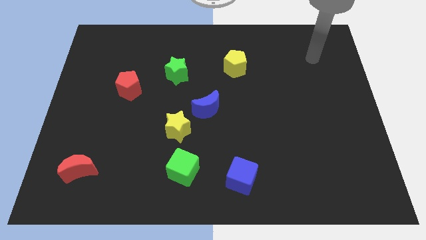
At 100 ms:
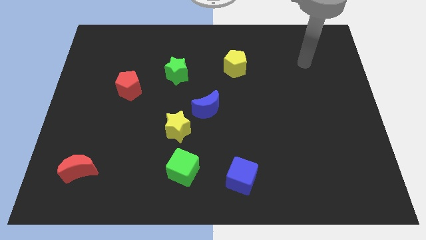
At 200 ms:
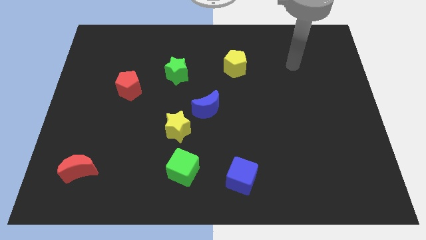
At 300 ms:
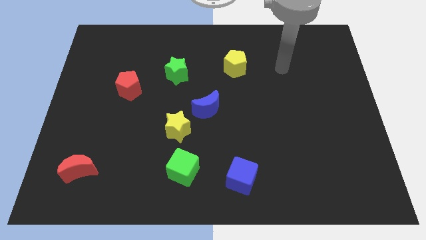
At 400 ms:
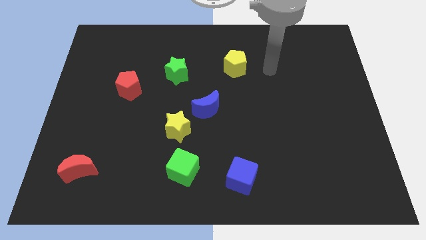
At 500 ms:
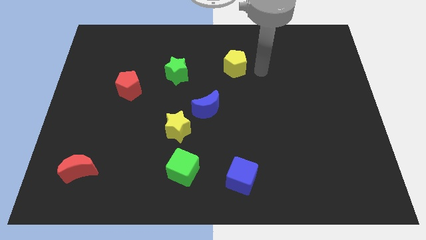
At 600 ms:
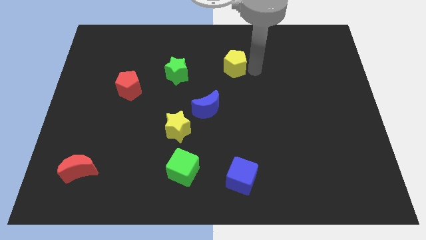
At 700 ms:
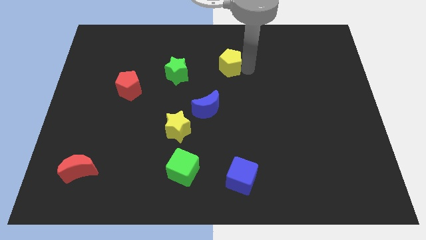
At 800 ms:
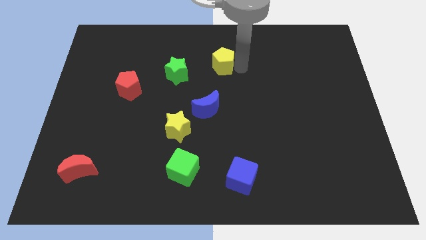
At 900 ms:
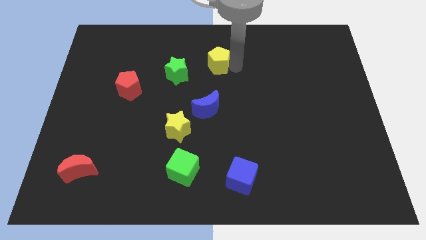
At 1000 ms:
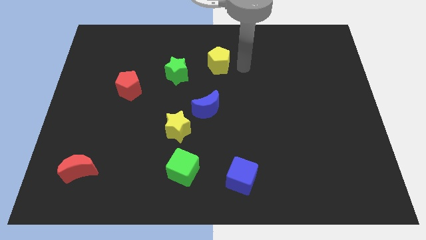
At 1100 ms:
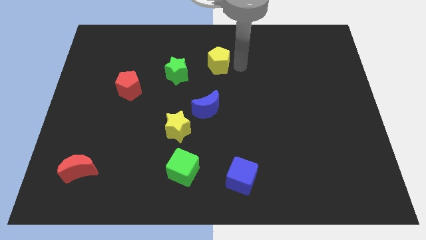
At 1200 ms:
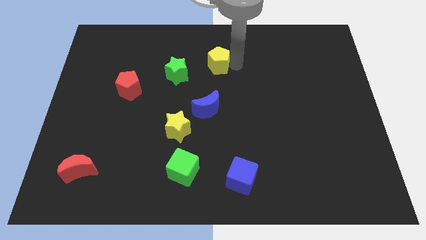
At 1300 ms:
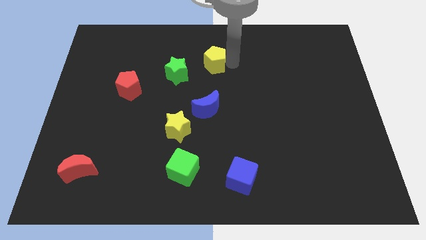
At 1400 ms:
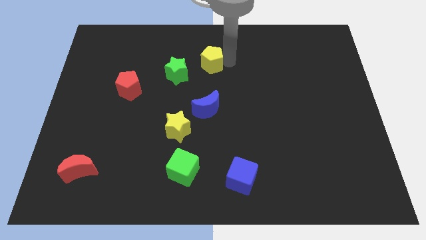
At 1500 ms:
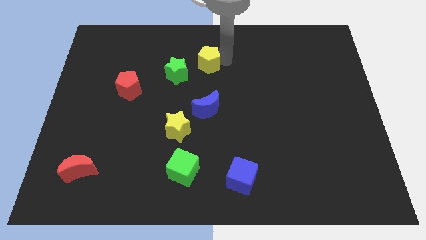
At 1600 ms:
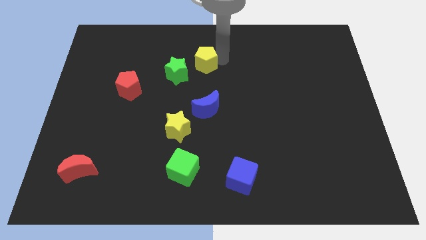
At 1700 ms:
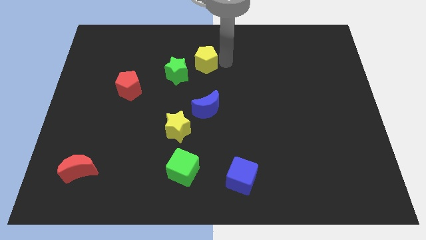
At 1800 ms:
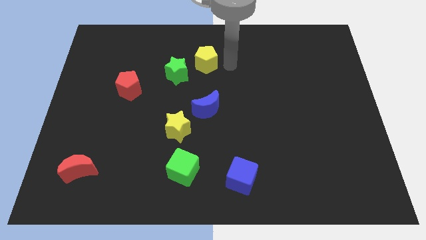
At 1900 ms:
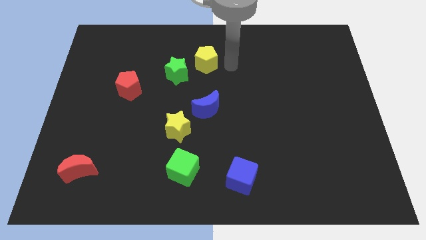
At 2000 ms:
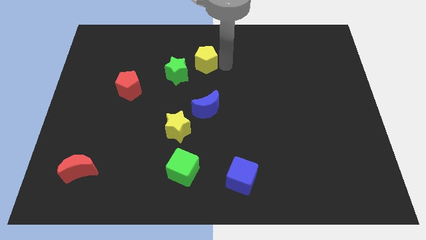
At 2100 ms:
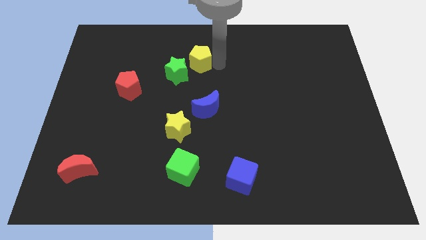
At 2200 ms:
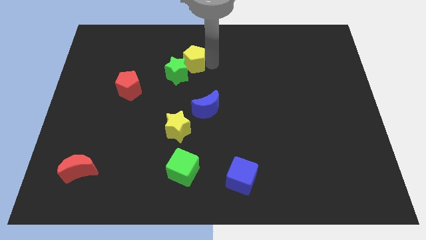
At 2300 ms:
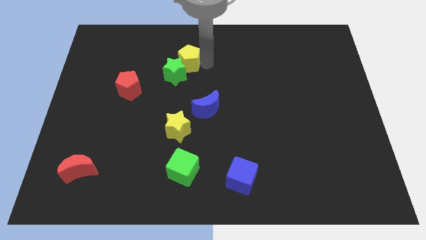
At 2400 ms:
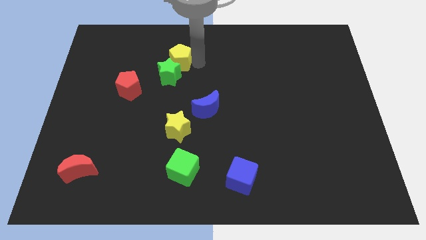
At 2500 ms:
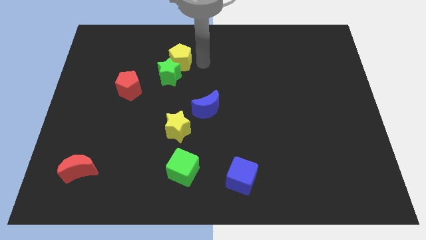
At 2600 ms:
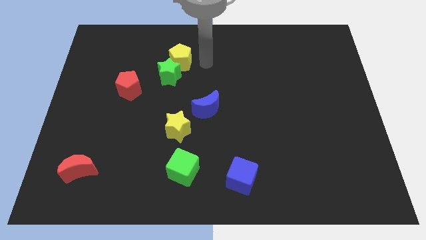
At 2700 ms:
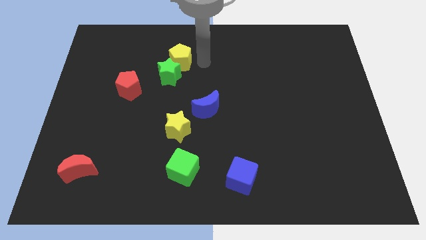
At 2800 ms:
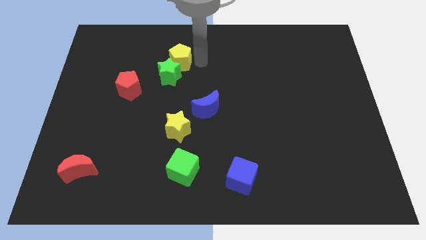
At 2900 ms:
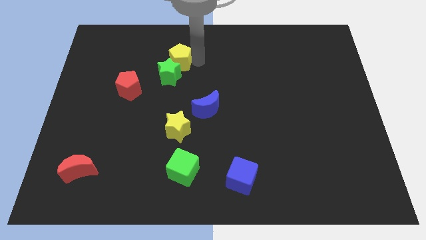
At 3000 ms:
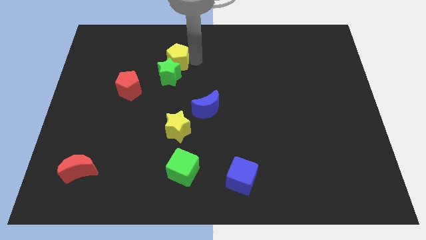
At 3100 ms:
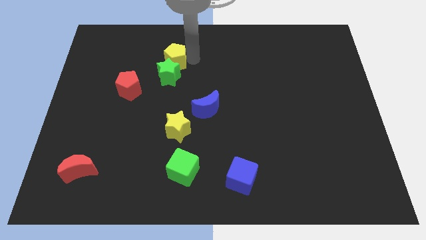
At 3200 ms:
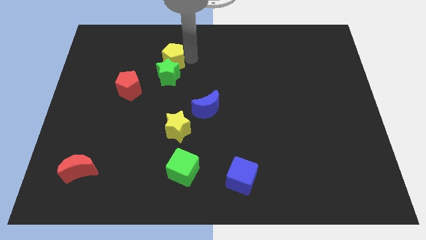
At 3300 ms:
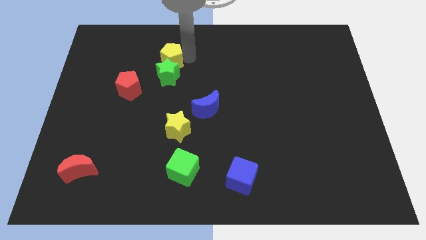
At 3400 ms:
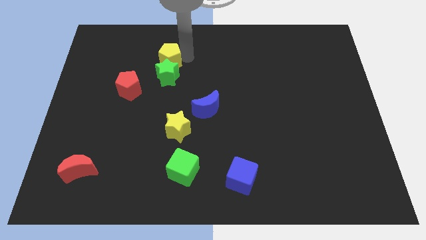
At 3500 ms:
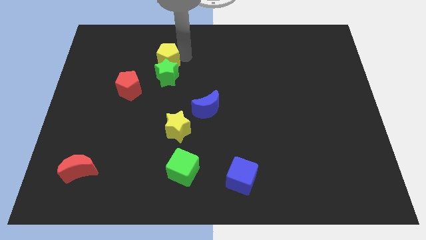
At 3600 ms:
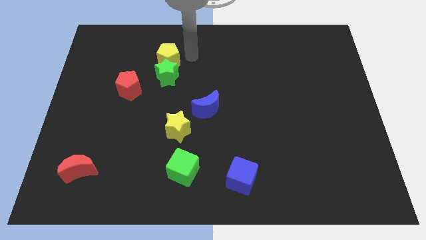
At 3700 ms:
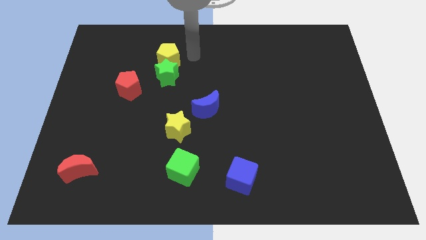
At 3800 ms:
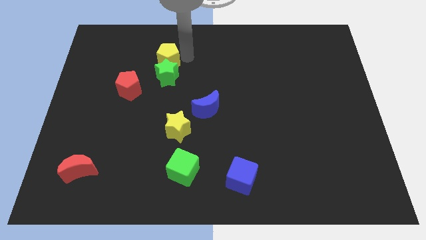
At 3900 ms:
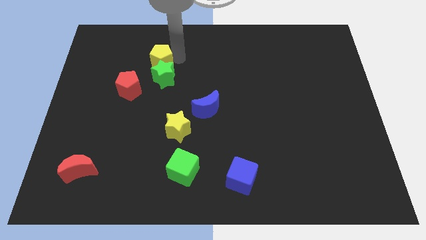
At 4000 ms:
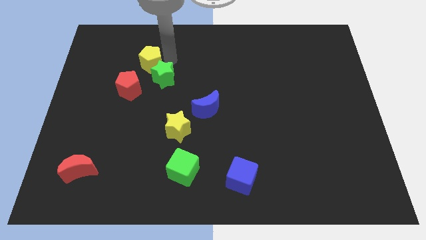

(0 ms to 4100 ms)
slide the yellow pentagon to the left

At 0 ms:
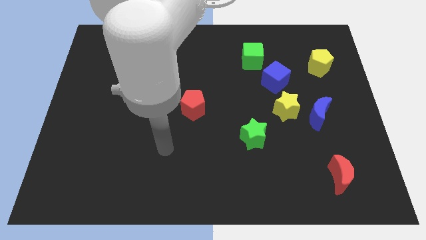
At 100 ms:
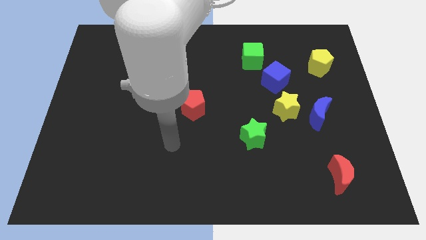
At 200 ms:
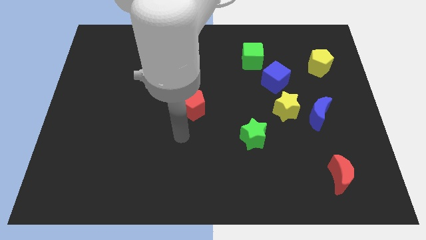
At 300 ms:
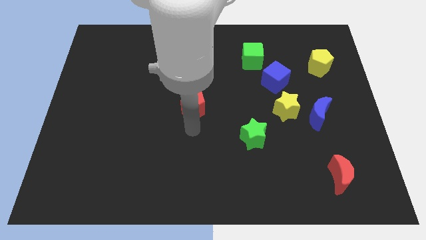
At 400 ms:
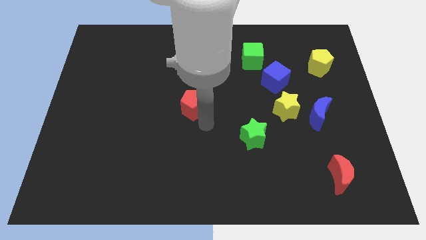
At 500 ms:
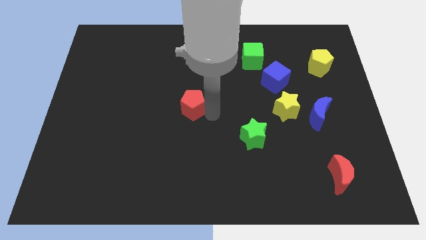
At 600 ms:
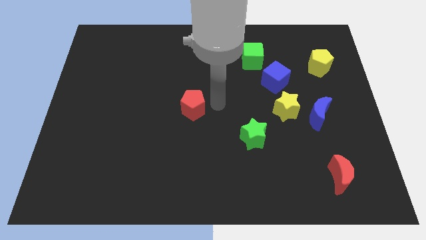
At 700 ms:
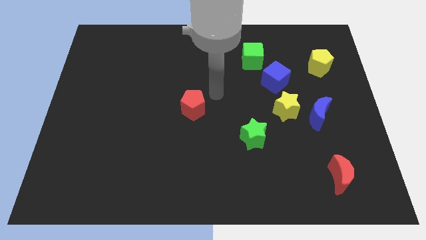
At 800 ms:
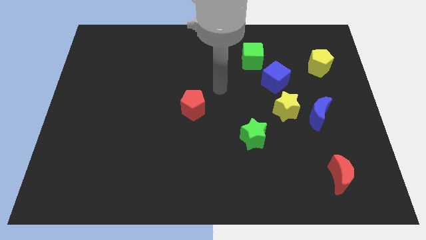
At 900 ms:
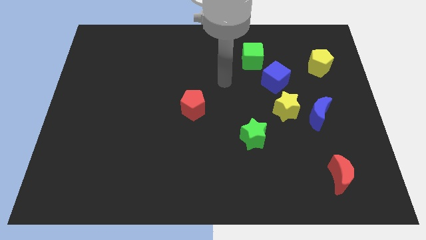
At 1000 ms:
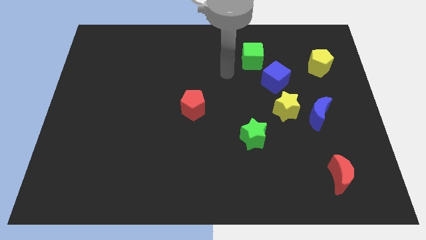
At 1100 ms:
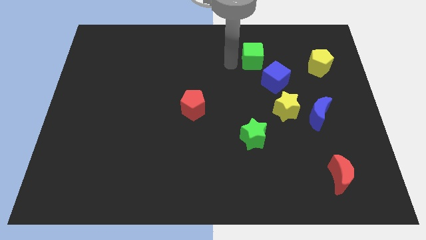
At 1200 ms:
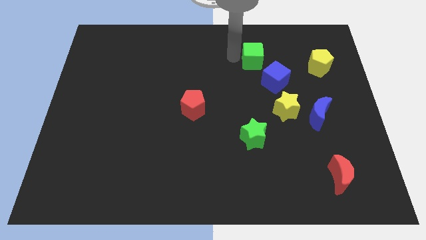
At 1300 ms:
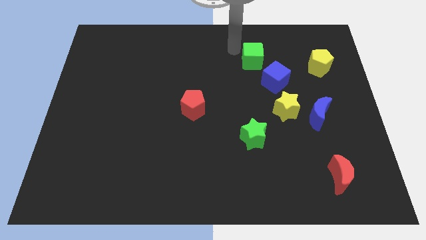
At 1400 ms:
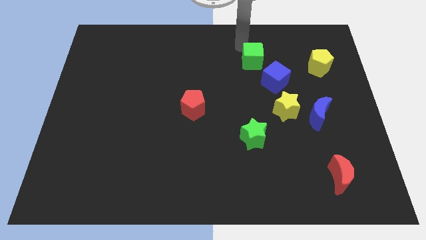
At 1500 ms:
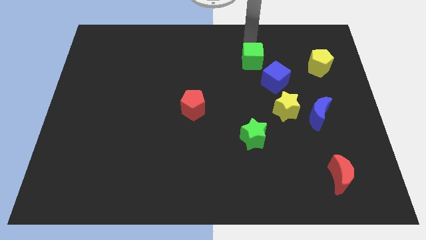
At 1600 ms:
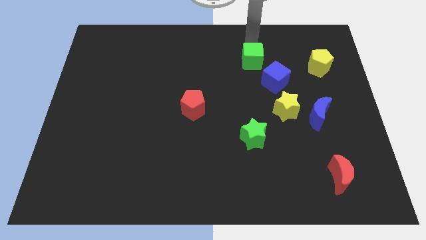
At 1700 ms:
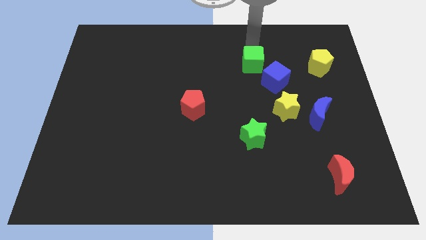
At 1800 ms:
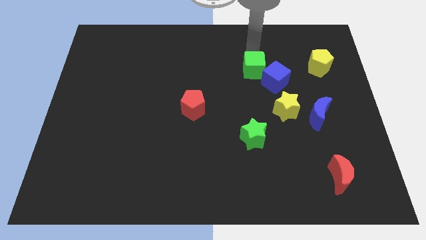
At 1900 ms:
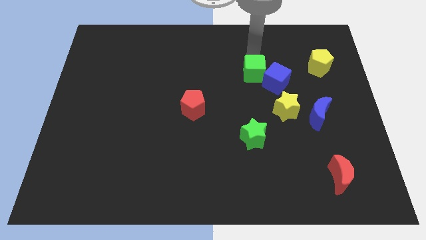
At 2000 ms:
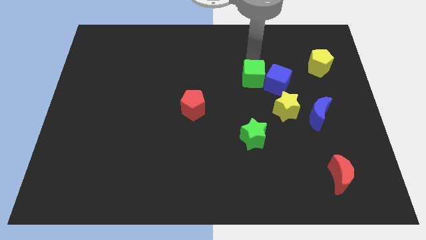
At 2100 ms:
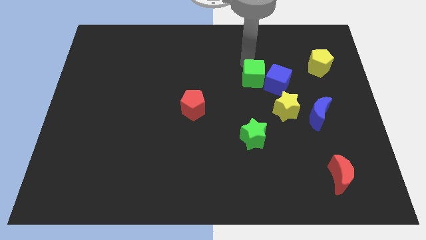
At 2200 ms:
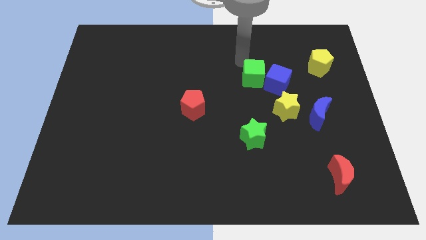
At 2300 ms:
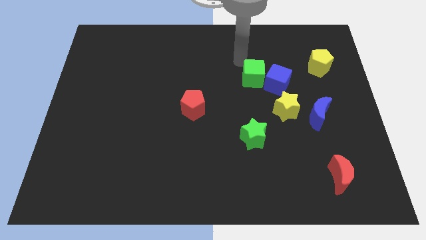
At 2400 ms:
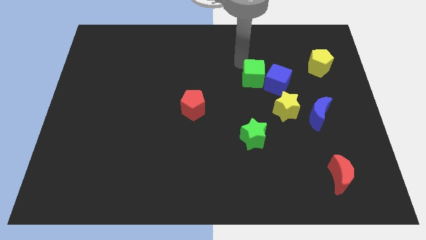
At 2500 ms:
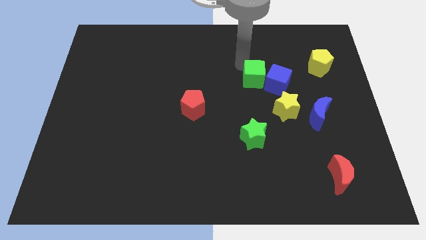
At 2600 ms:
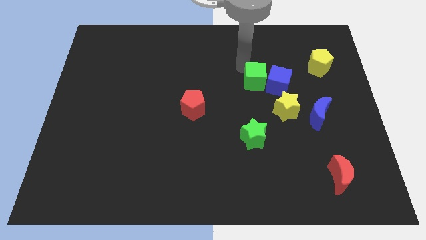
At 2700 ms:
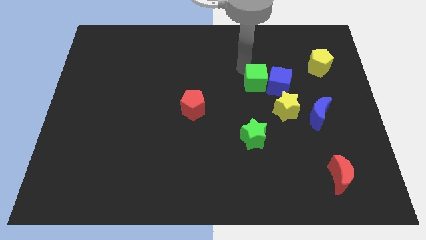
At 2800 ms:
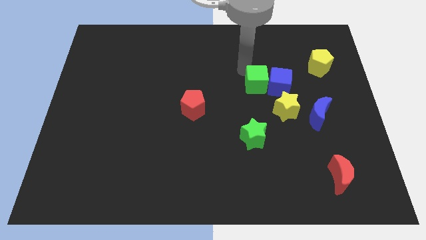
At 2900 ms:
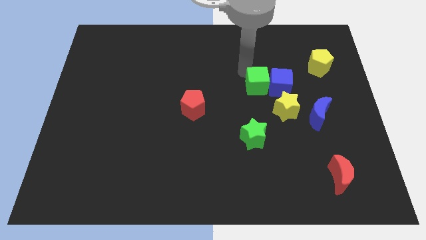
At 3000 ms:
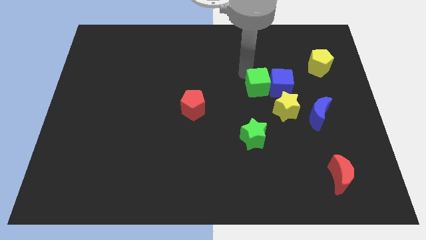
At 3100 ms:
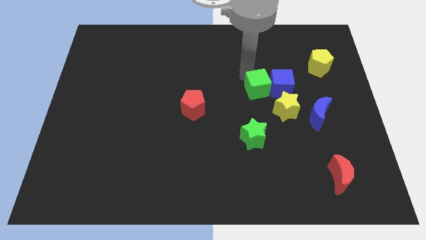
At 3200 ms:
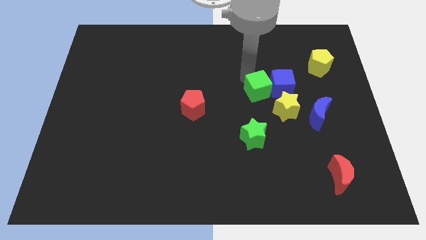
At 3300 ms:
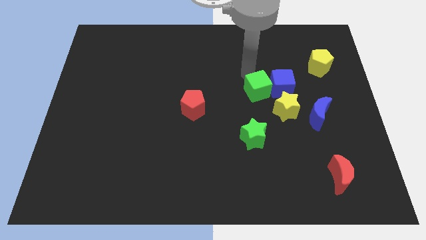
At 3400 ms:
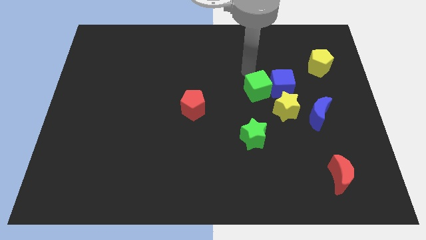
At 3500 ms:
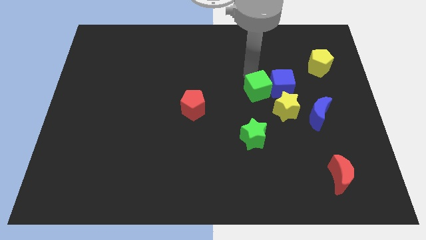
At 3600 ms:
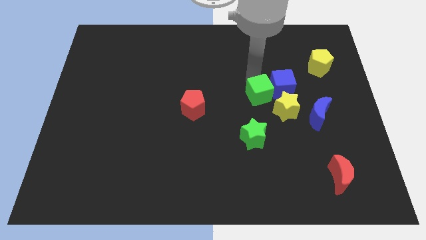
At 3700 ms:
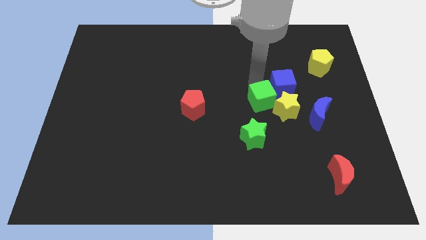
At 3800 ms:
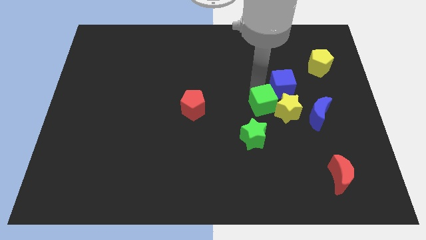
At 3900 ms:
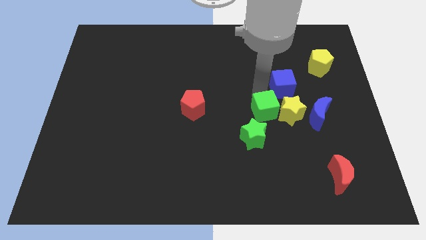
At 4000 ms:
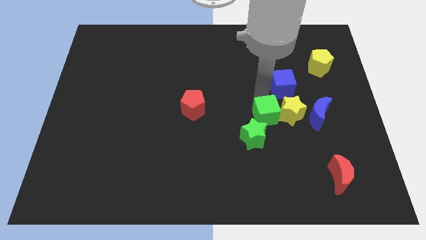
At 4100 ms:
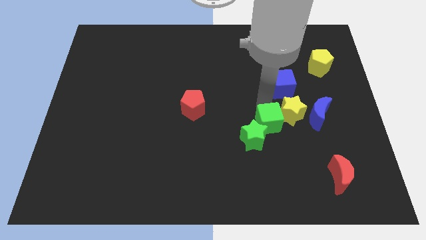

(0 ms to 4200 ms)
push the green cube downwards

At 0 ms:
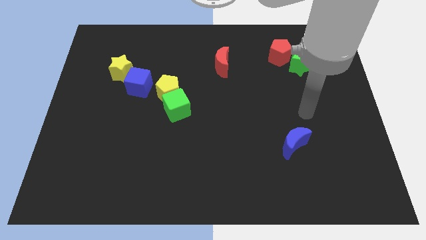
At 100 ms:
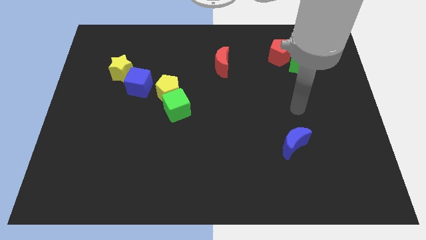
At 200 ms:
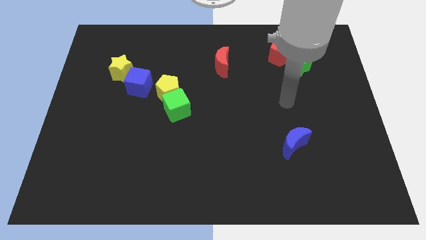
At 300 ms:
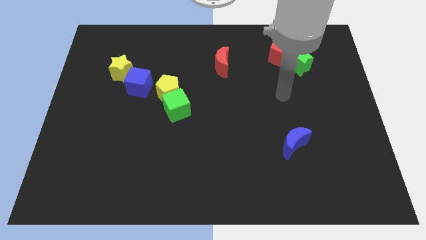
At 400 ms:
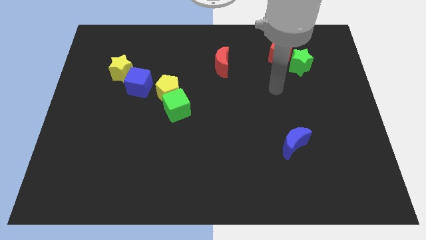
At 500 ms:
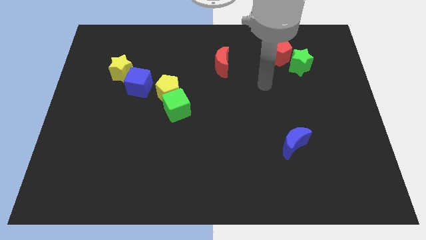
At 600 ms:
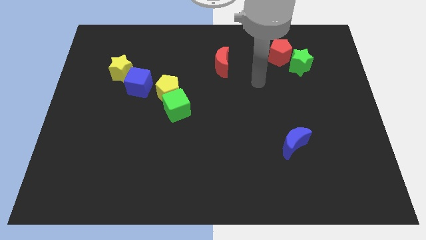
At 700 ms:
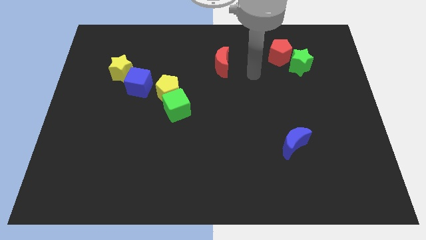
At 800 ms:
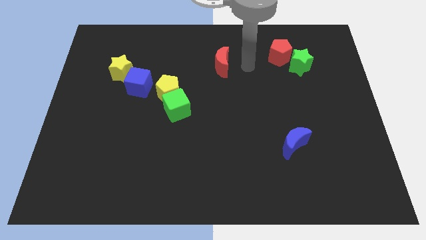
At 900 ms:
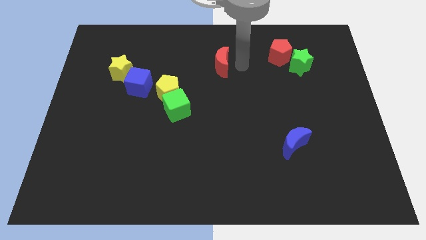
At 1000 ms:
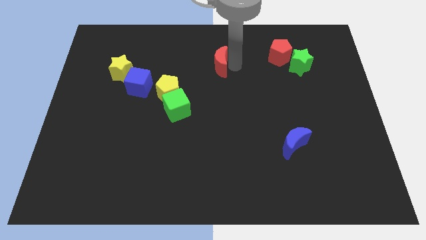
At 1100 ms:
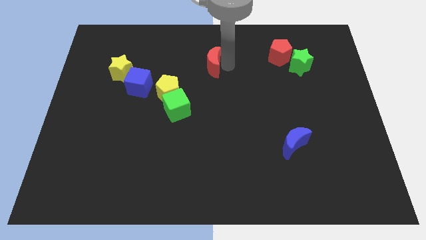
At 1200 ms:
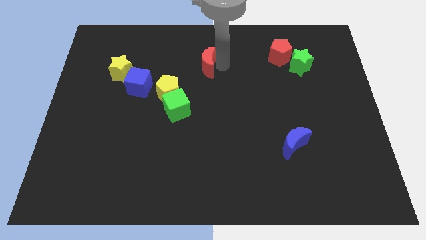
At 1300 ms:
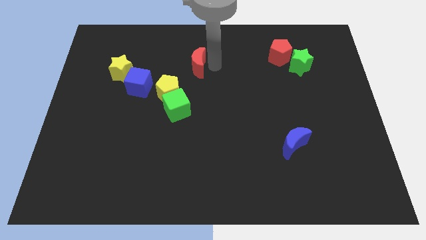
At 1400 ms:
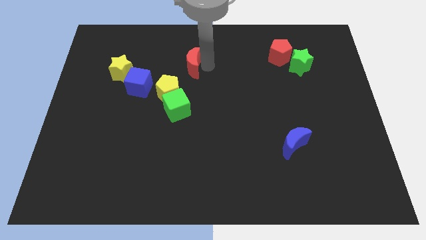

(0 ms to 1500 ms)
move the red moon somewhat left
